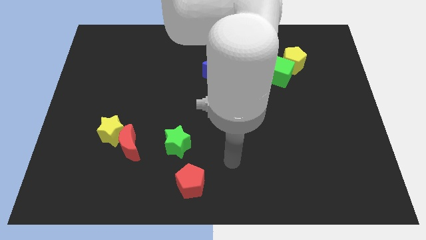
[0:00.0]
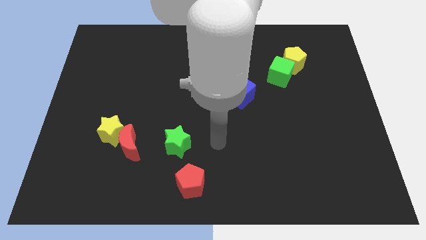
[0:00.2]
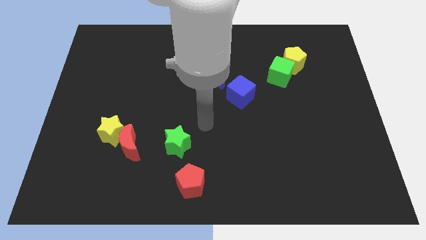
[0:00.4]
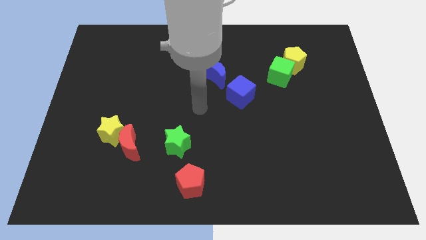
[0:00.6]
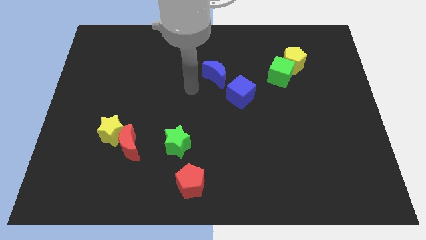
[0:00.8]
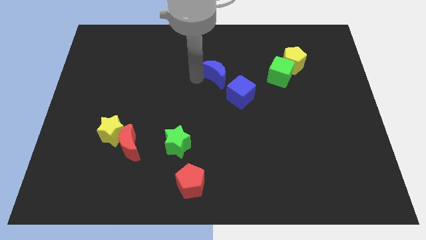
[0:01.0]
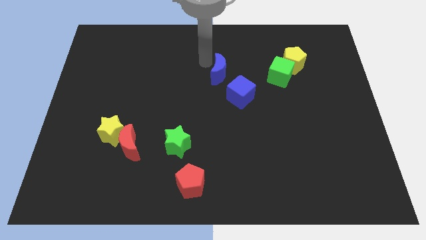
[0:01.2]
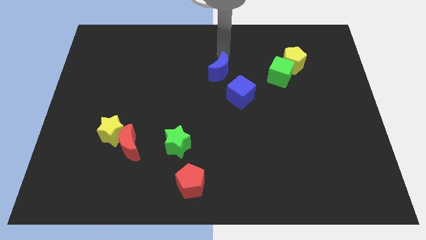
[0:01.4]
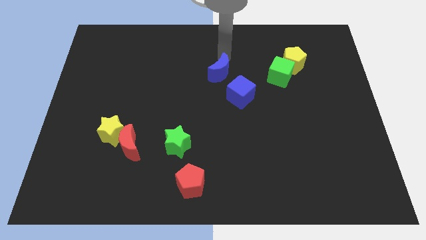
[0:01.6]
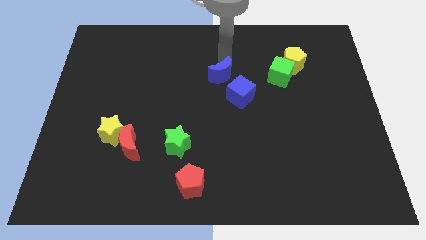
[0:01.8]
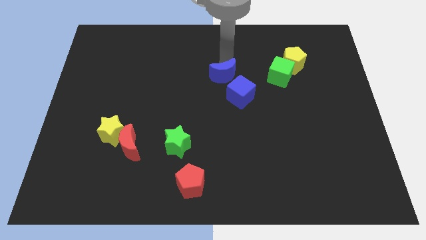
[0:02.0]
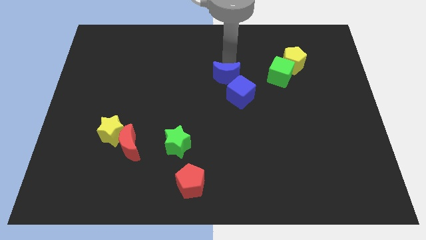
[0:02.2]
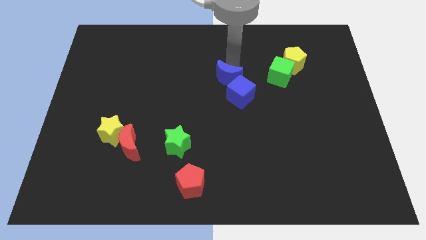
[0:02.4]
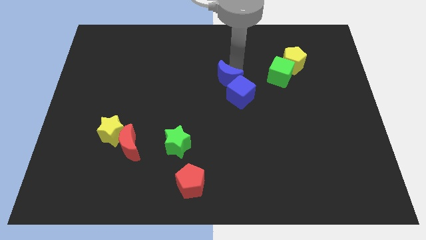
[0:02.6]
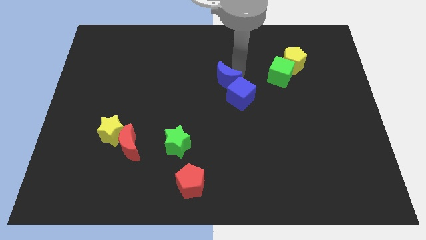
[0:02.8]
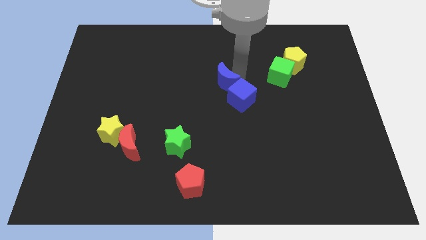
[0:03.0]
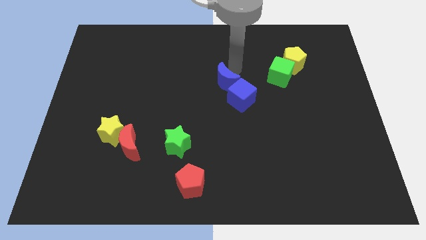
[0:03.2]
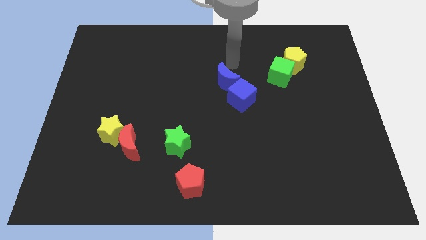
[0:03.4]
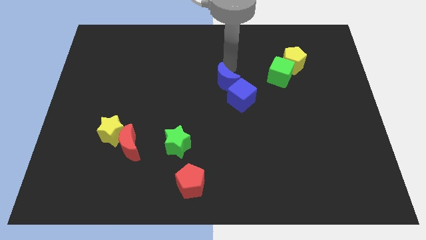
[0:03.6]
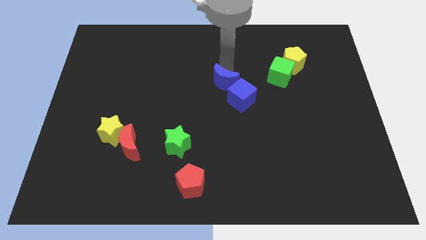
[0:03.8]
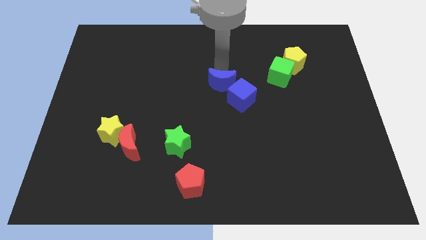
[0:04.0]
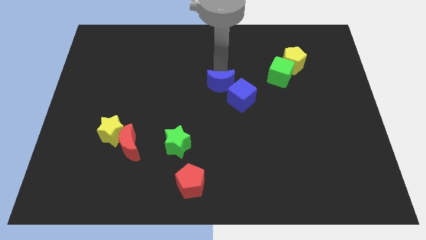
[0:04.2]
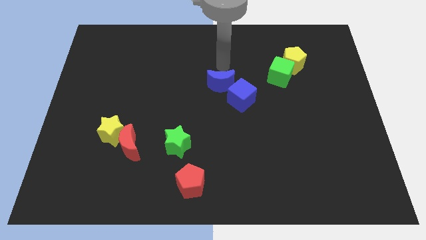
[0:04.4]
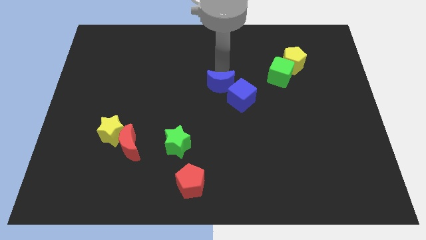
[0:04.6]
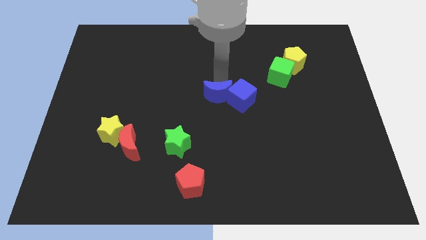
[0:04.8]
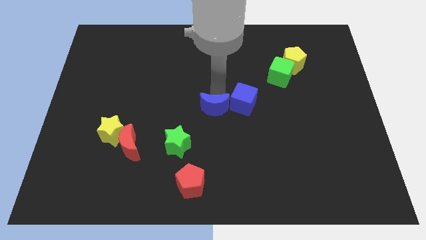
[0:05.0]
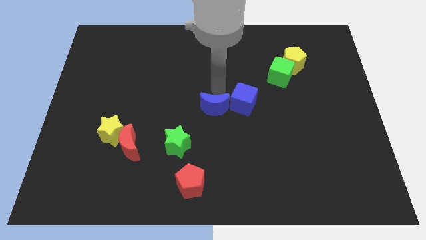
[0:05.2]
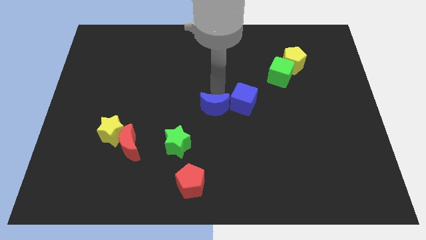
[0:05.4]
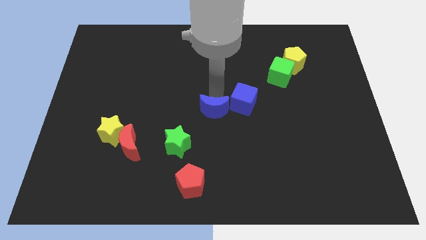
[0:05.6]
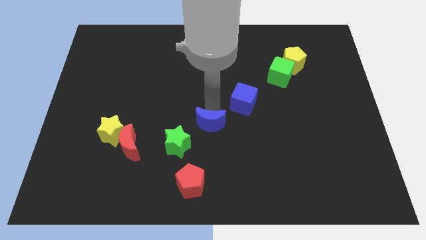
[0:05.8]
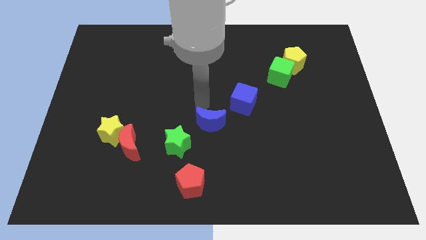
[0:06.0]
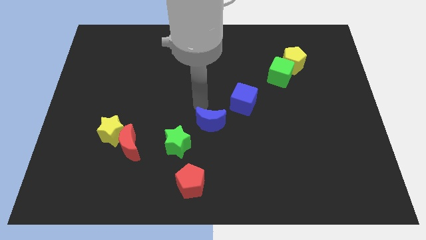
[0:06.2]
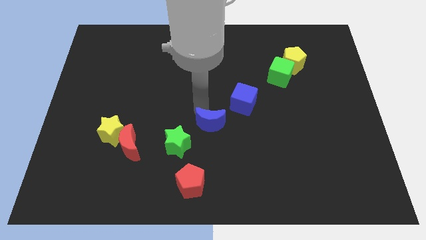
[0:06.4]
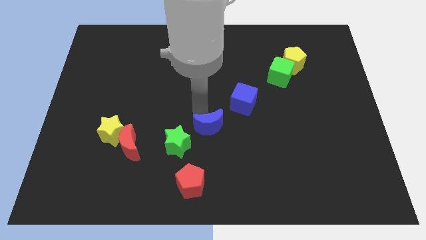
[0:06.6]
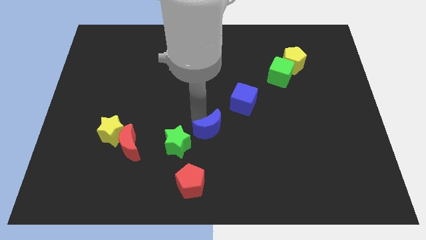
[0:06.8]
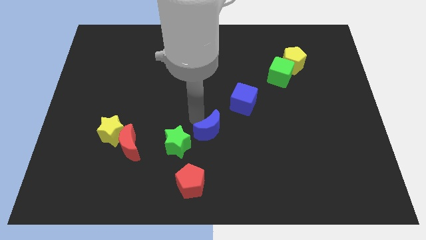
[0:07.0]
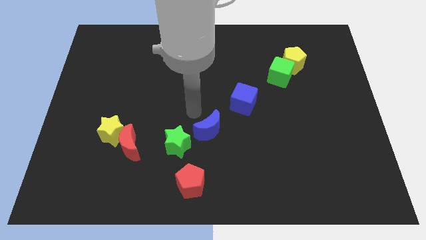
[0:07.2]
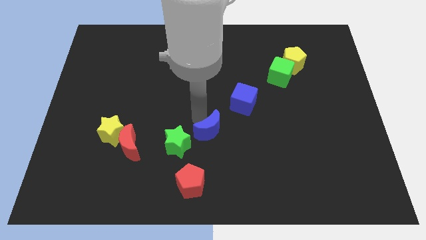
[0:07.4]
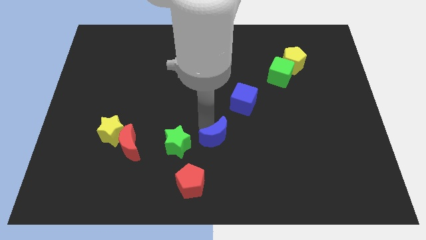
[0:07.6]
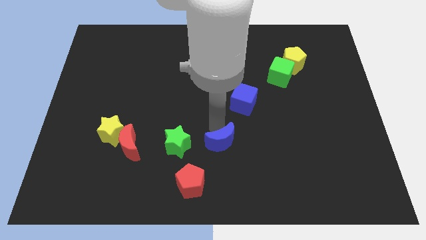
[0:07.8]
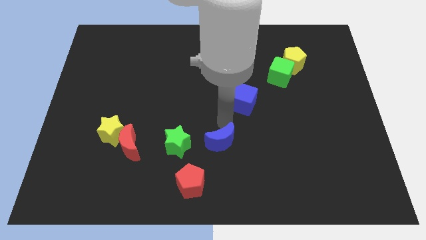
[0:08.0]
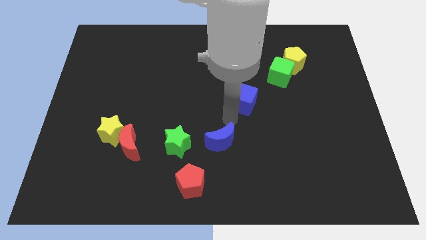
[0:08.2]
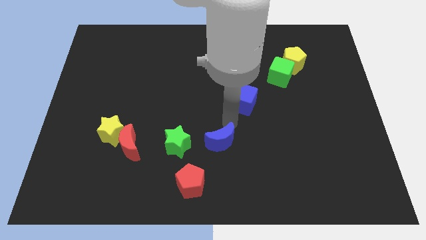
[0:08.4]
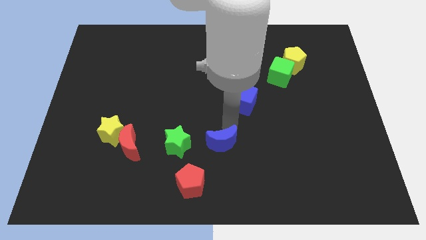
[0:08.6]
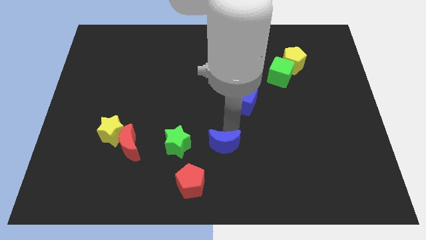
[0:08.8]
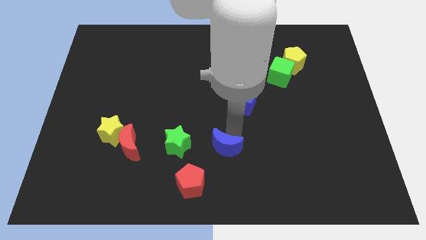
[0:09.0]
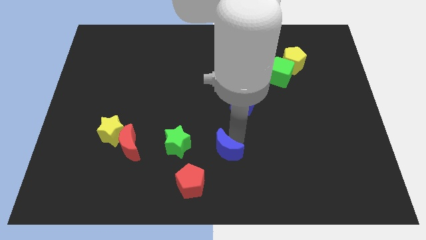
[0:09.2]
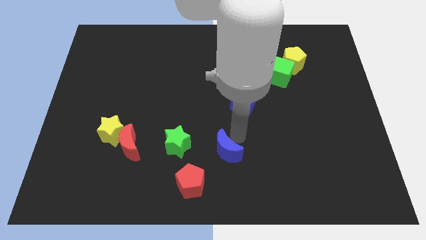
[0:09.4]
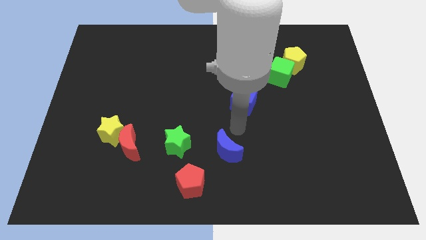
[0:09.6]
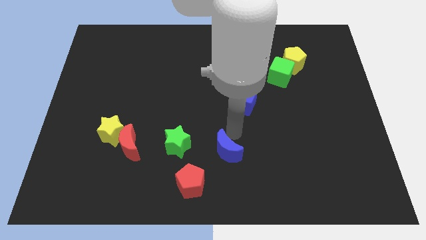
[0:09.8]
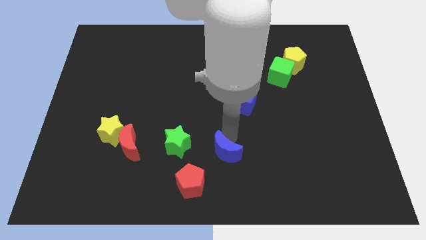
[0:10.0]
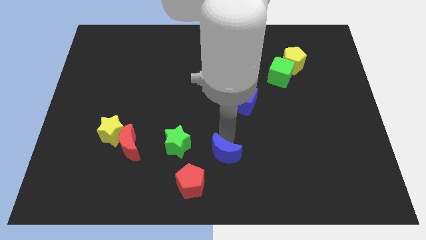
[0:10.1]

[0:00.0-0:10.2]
put the blue moon to the bottom side

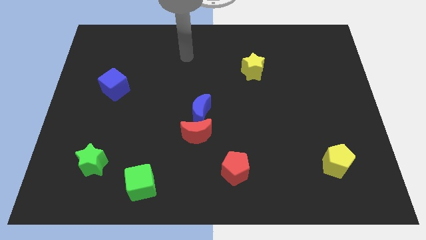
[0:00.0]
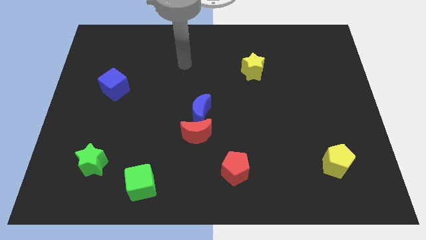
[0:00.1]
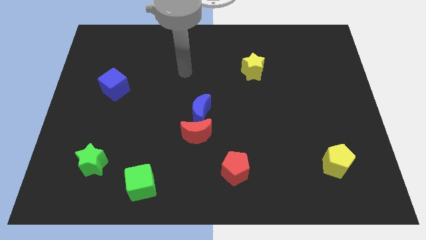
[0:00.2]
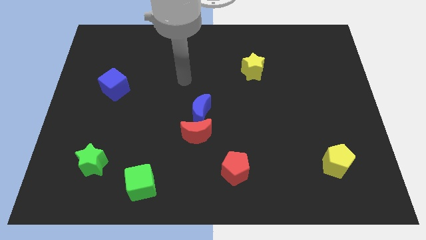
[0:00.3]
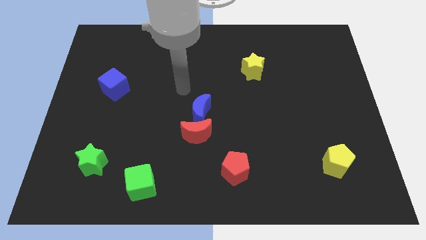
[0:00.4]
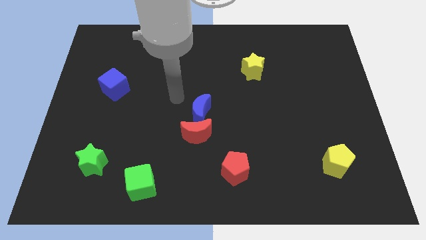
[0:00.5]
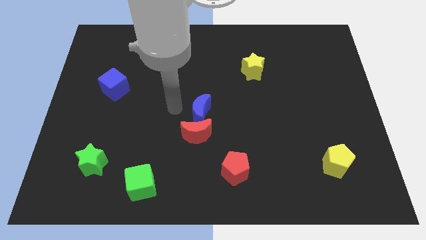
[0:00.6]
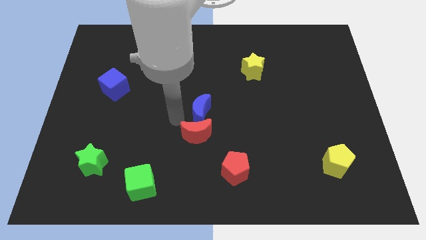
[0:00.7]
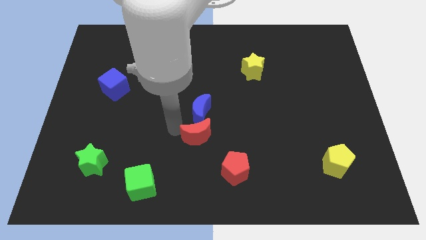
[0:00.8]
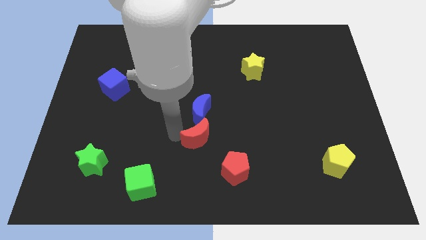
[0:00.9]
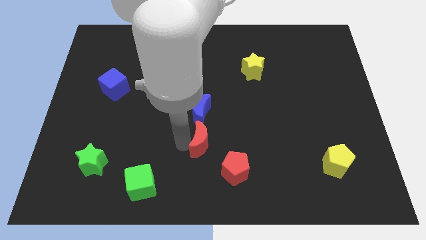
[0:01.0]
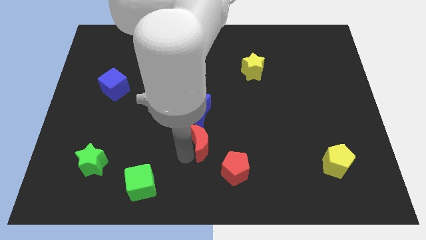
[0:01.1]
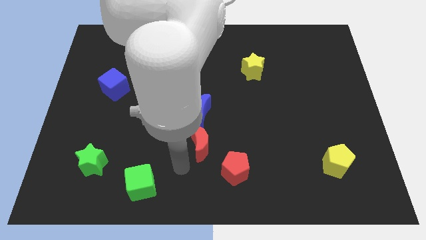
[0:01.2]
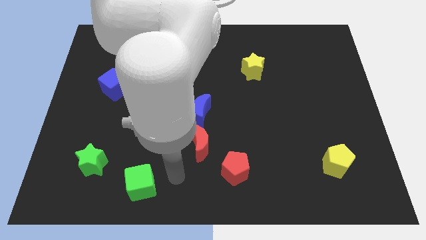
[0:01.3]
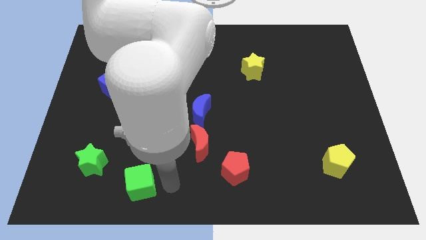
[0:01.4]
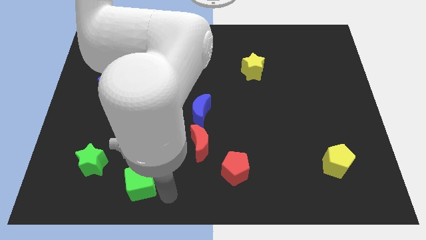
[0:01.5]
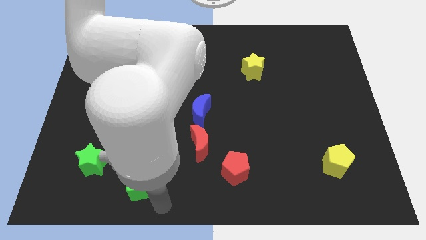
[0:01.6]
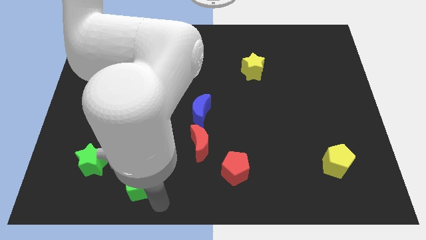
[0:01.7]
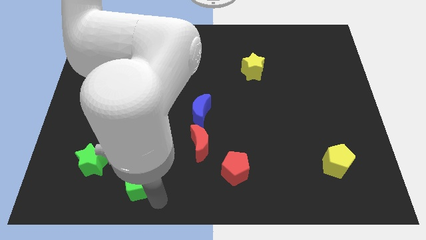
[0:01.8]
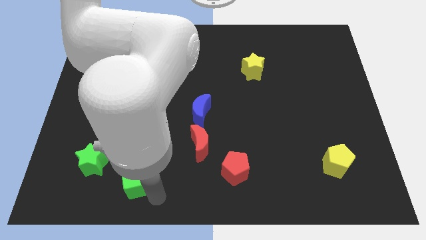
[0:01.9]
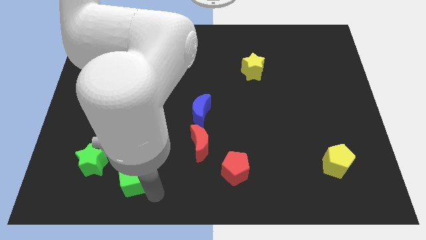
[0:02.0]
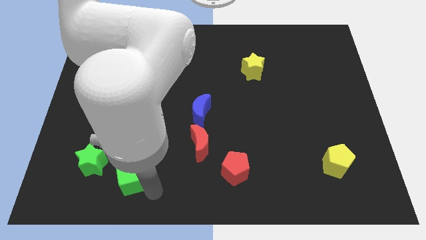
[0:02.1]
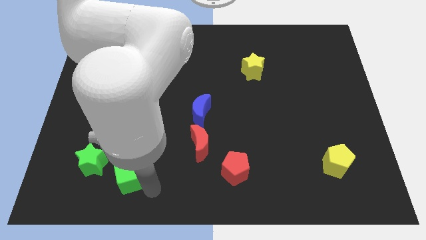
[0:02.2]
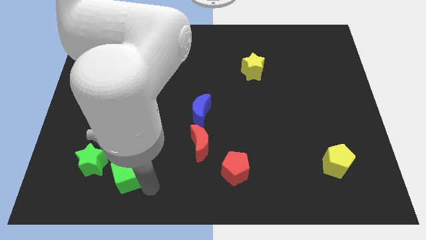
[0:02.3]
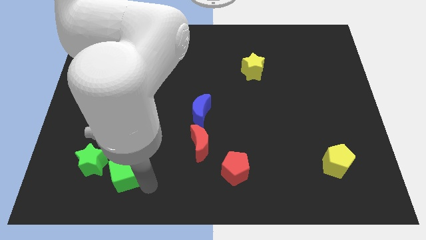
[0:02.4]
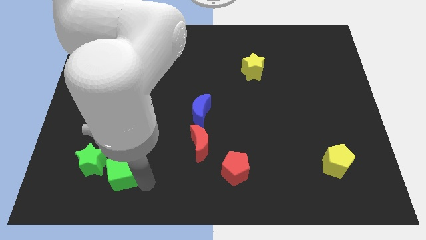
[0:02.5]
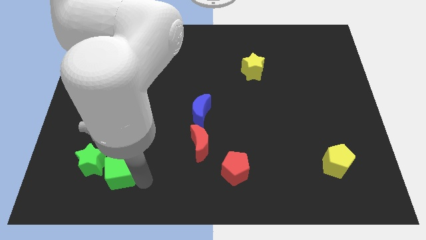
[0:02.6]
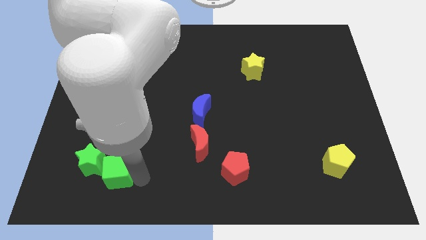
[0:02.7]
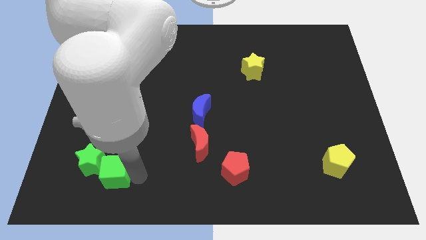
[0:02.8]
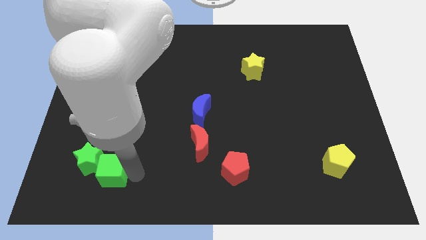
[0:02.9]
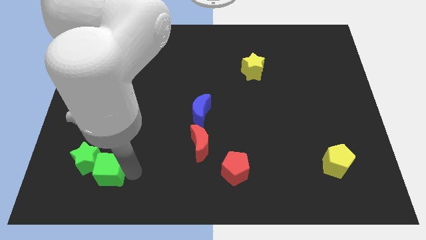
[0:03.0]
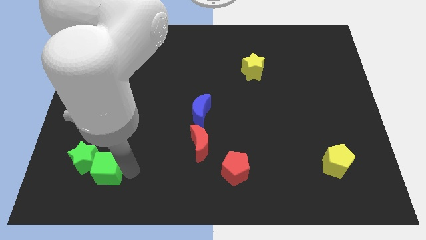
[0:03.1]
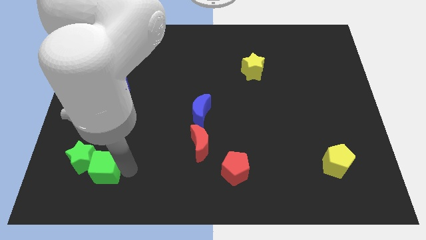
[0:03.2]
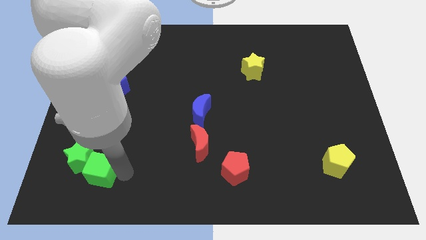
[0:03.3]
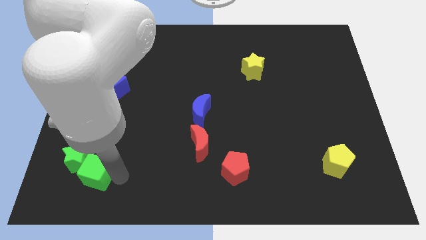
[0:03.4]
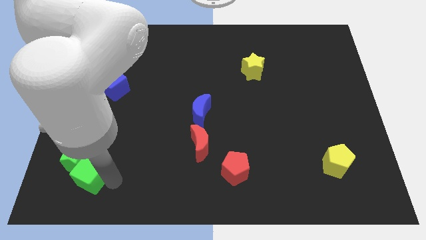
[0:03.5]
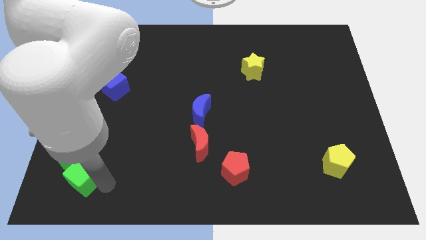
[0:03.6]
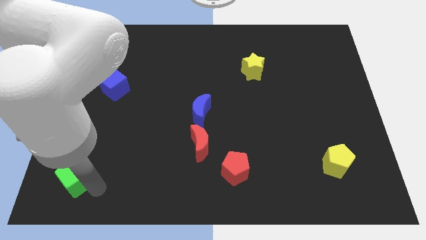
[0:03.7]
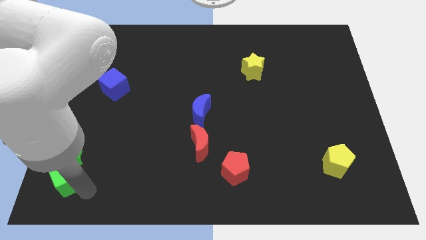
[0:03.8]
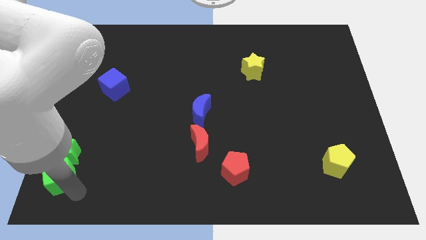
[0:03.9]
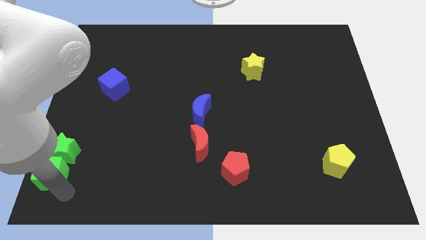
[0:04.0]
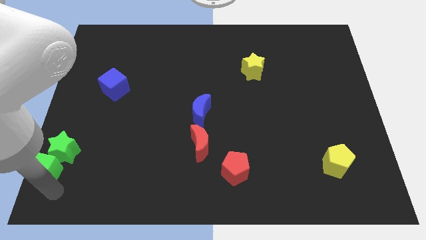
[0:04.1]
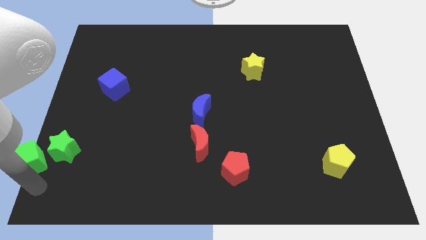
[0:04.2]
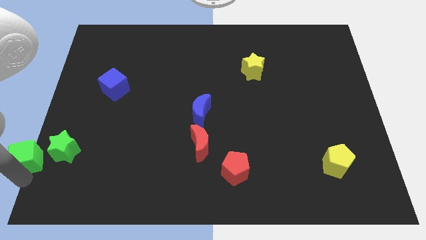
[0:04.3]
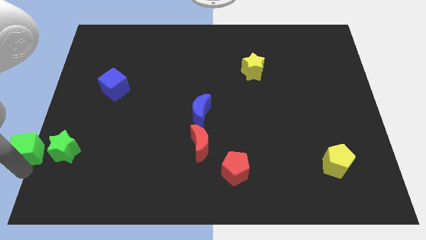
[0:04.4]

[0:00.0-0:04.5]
push the green cube to the left side of the board
